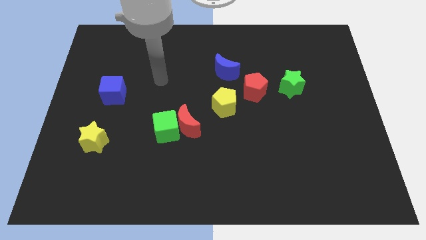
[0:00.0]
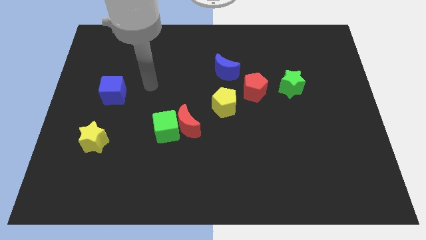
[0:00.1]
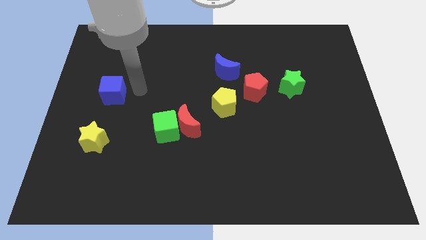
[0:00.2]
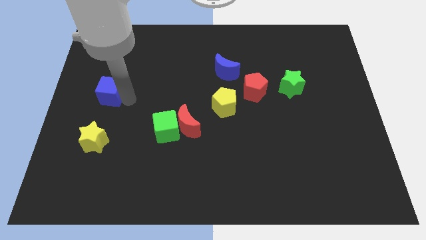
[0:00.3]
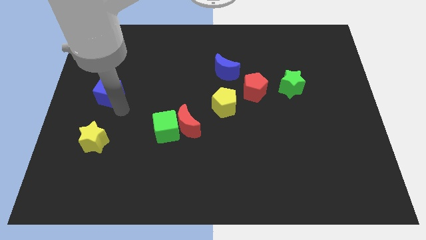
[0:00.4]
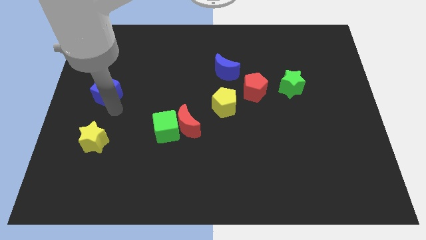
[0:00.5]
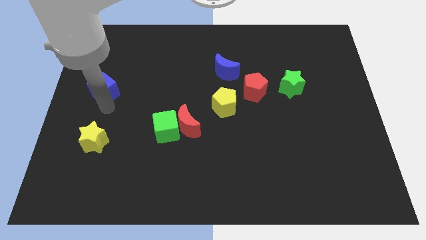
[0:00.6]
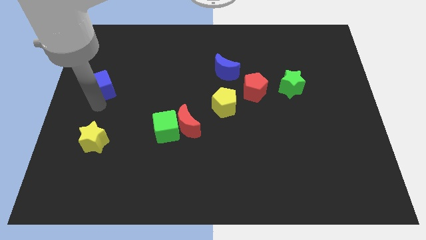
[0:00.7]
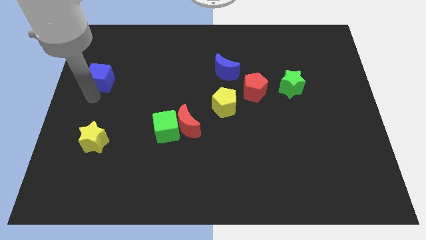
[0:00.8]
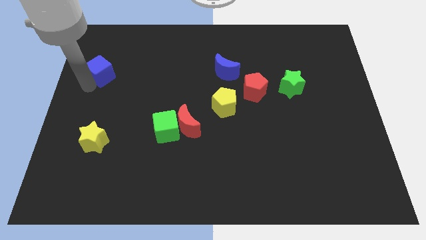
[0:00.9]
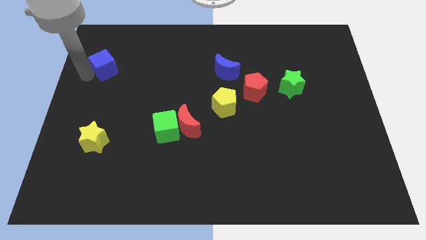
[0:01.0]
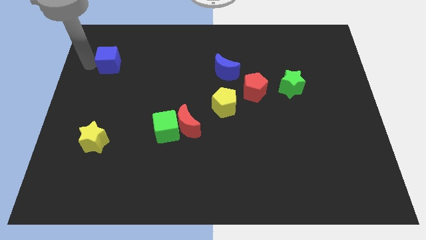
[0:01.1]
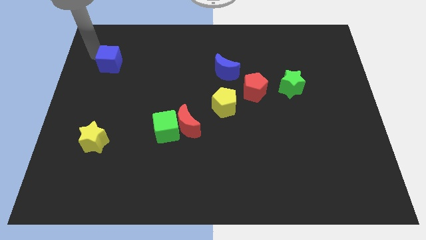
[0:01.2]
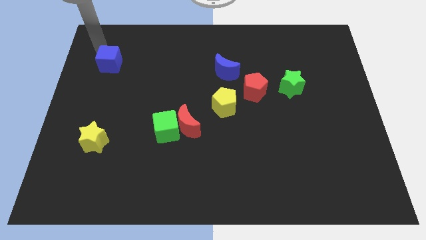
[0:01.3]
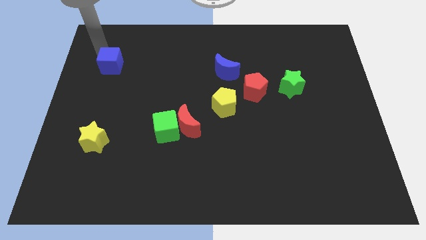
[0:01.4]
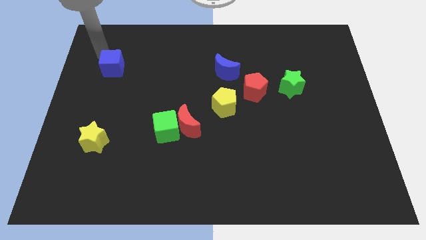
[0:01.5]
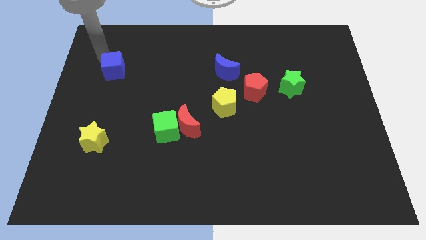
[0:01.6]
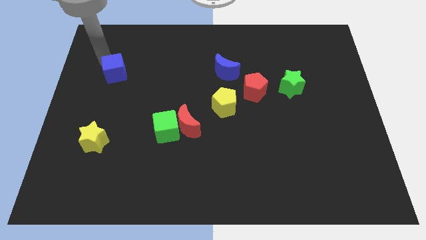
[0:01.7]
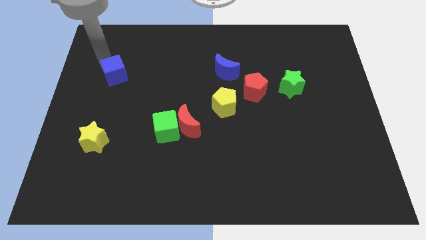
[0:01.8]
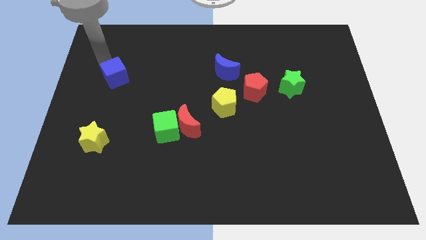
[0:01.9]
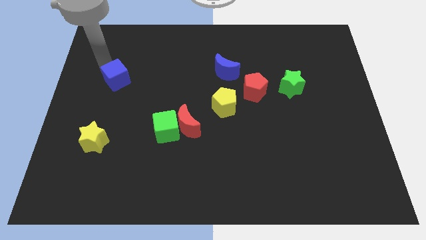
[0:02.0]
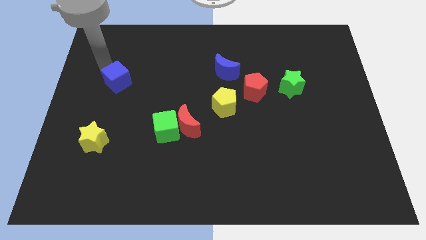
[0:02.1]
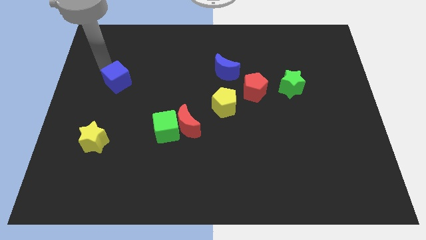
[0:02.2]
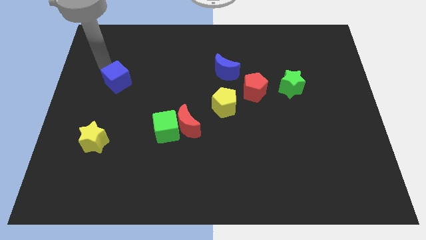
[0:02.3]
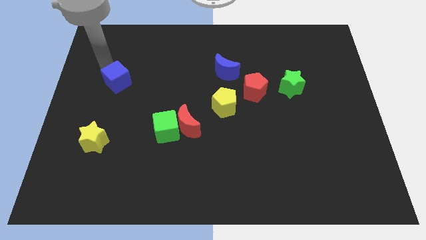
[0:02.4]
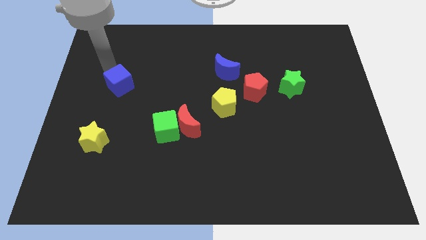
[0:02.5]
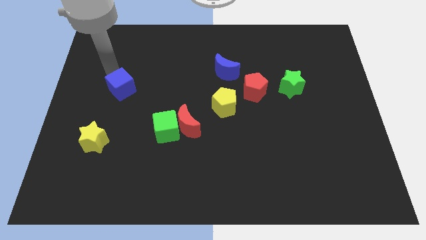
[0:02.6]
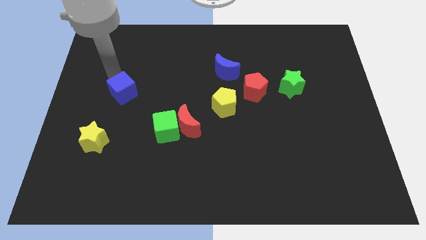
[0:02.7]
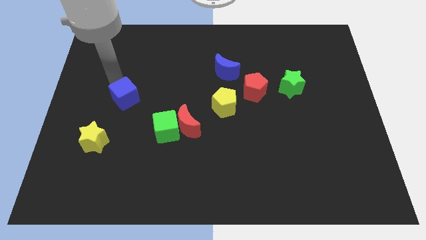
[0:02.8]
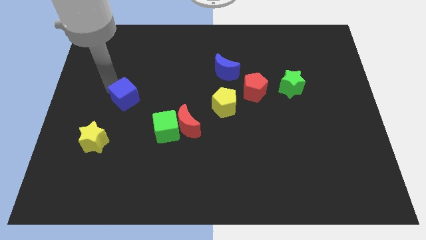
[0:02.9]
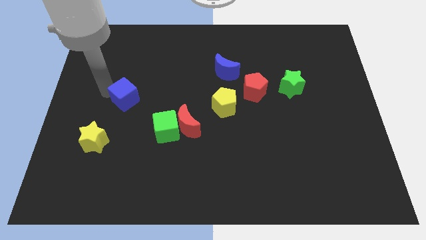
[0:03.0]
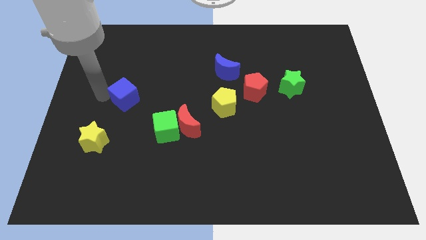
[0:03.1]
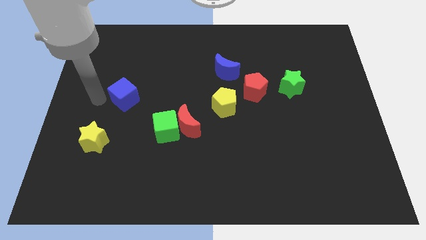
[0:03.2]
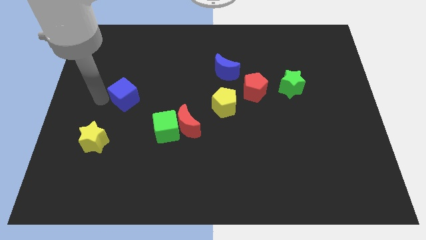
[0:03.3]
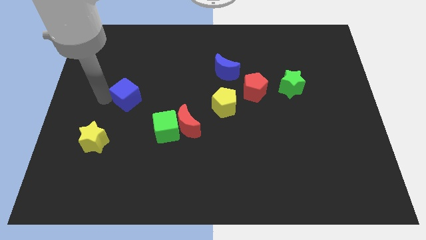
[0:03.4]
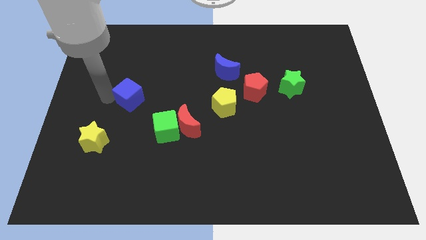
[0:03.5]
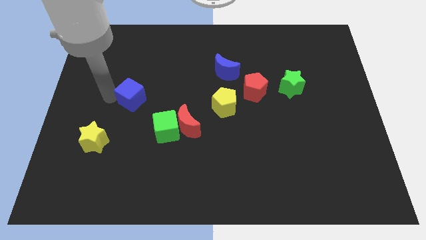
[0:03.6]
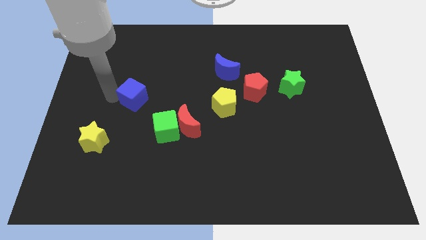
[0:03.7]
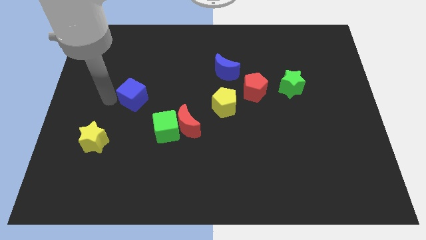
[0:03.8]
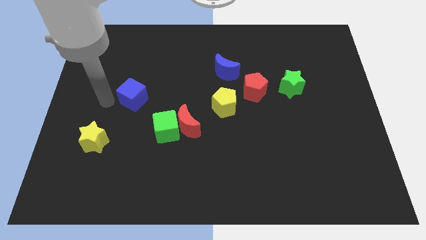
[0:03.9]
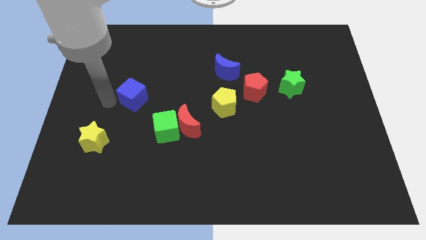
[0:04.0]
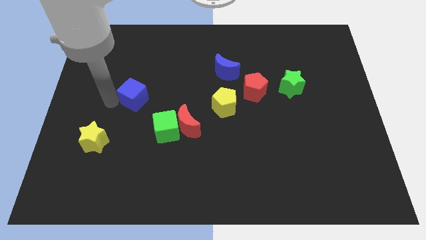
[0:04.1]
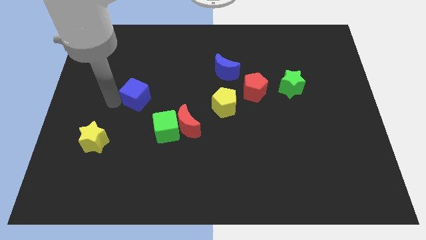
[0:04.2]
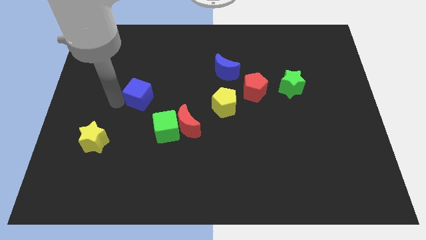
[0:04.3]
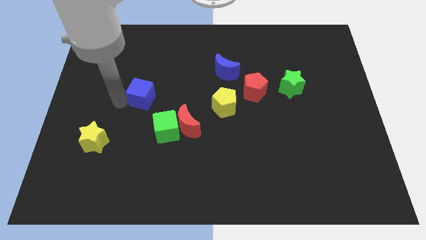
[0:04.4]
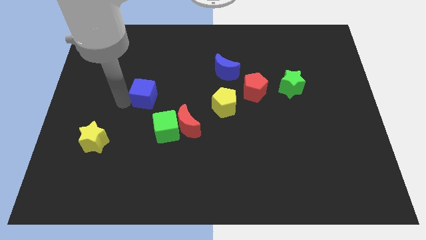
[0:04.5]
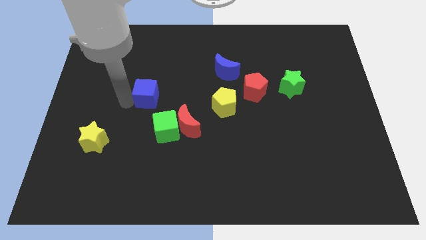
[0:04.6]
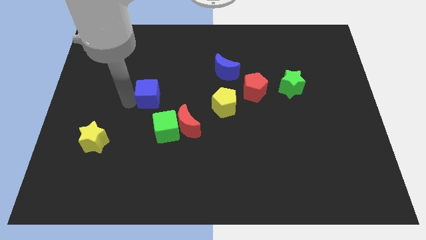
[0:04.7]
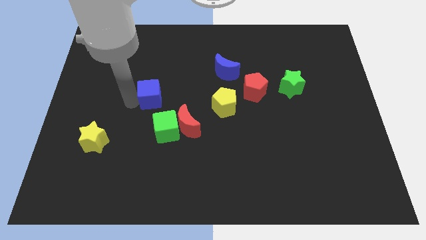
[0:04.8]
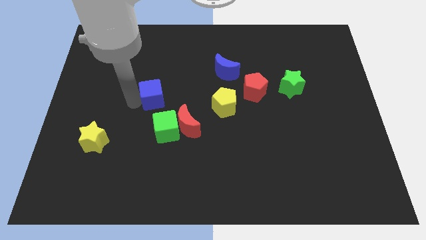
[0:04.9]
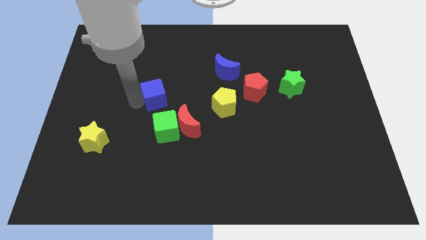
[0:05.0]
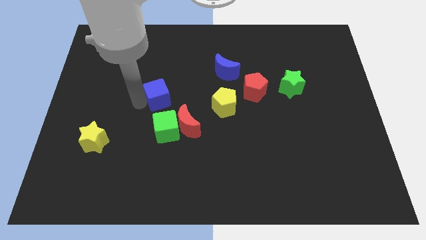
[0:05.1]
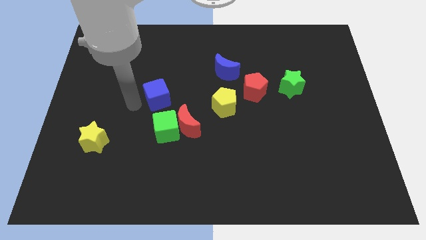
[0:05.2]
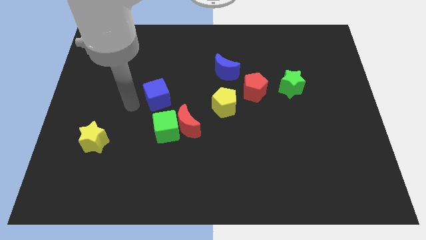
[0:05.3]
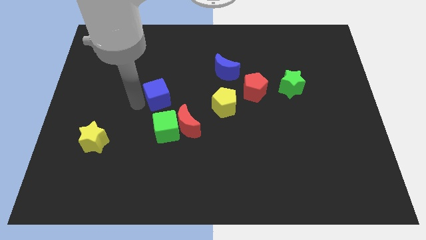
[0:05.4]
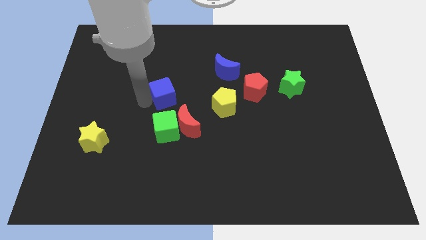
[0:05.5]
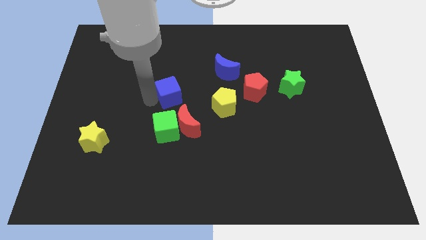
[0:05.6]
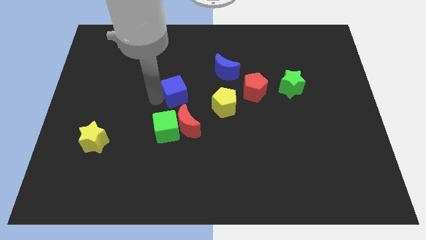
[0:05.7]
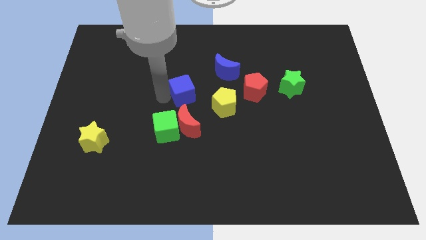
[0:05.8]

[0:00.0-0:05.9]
slide the blue cube diagonally up and to the left of the yellow pentagon

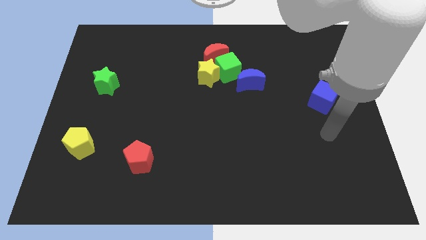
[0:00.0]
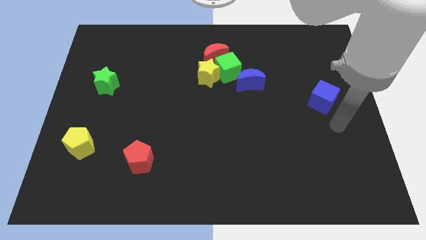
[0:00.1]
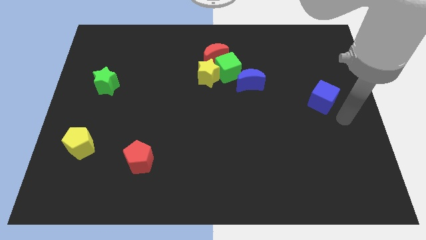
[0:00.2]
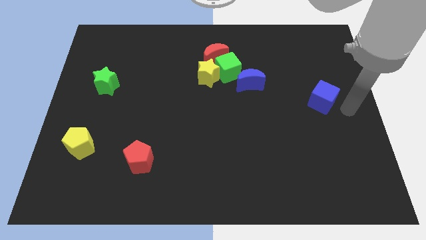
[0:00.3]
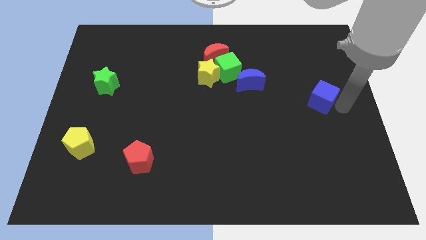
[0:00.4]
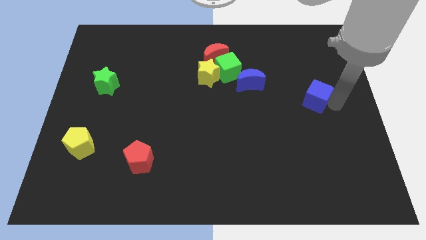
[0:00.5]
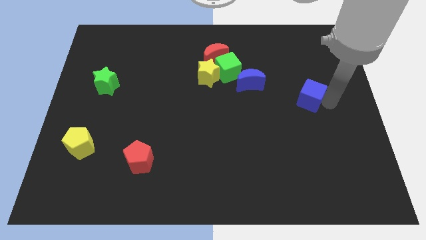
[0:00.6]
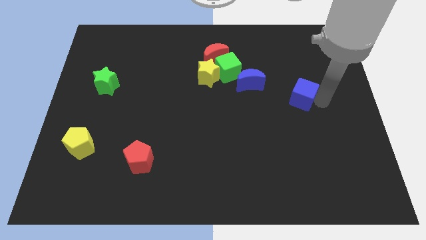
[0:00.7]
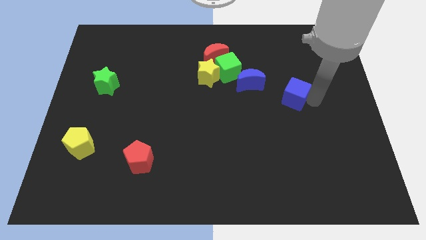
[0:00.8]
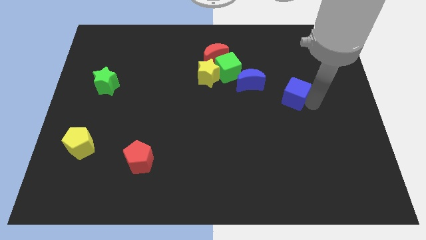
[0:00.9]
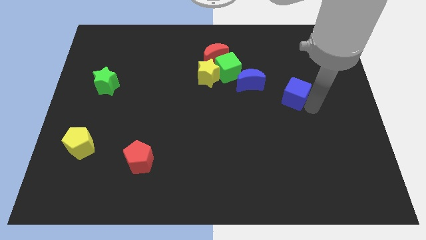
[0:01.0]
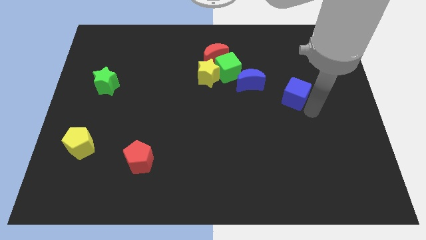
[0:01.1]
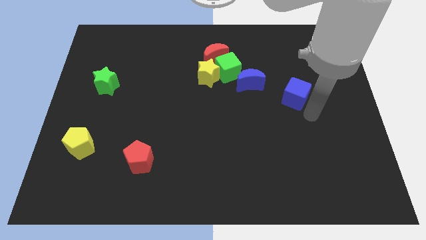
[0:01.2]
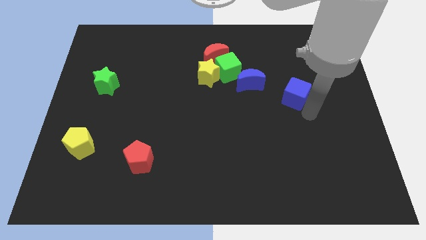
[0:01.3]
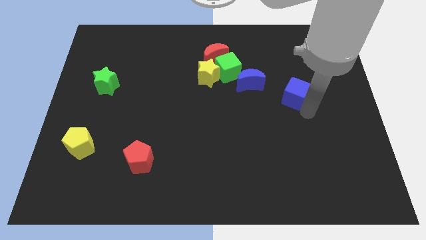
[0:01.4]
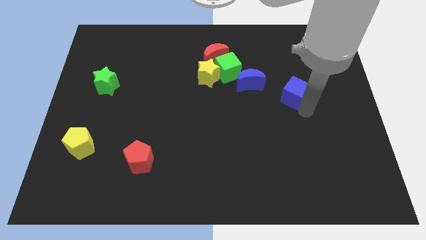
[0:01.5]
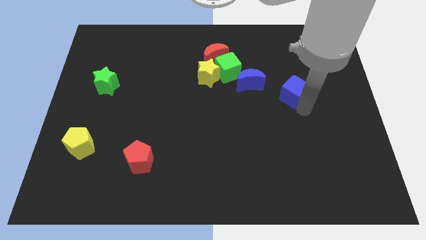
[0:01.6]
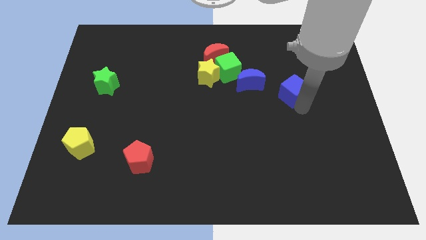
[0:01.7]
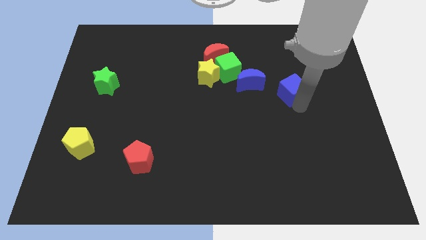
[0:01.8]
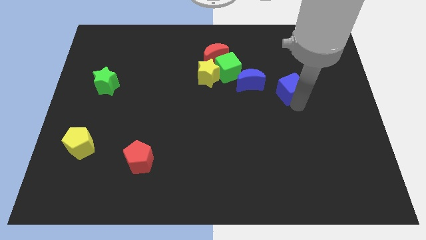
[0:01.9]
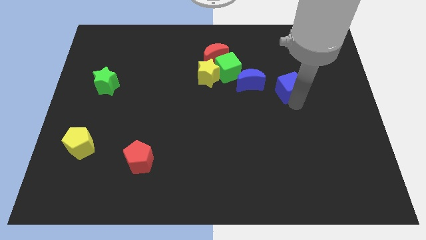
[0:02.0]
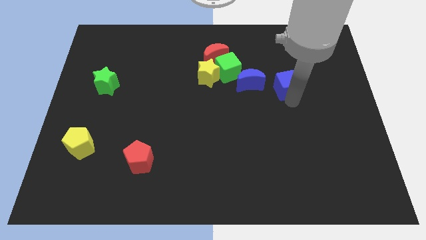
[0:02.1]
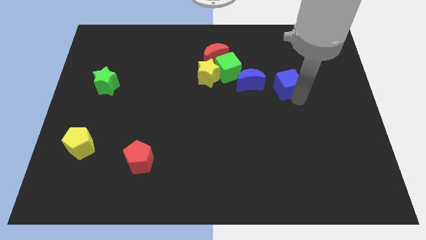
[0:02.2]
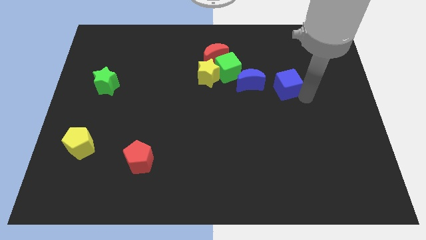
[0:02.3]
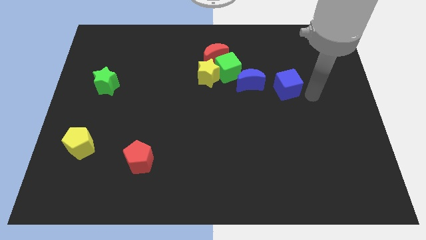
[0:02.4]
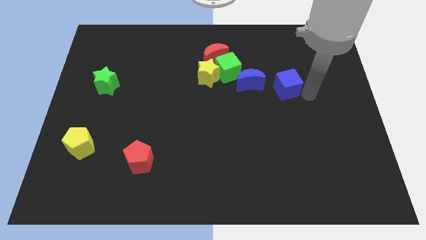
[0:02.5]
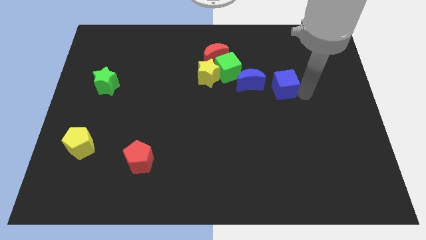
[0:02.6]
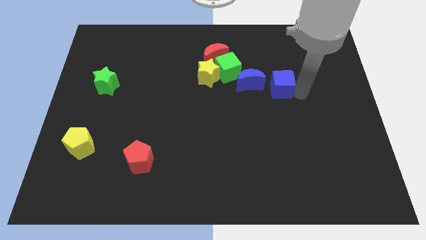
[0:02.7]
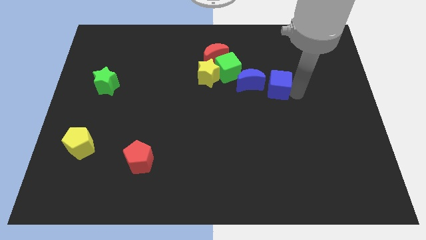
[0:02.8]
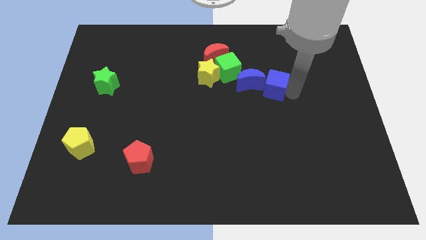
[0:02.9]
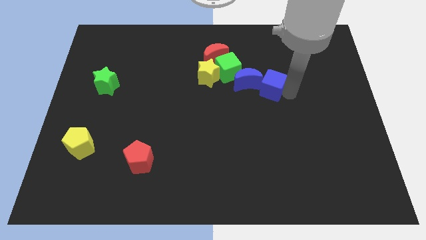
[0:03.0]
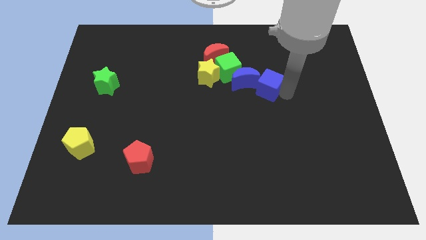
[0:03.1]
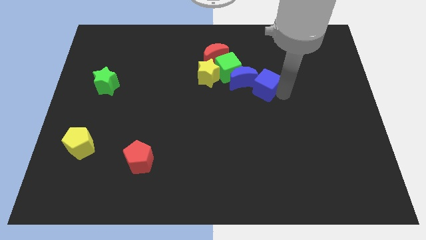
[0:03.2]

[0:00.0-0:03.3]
slide the blue cube to the right side of the yellow star
